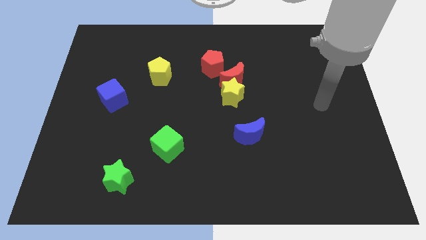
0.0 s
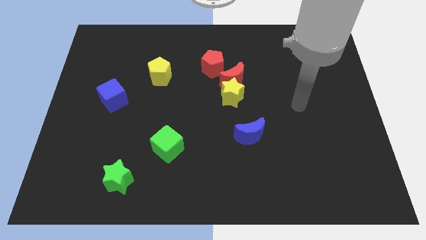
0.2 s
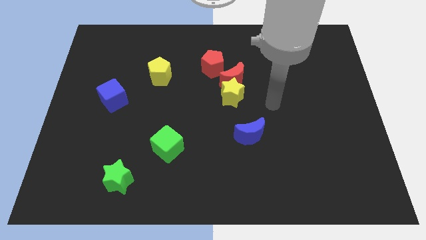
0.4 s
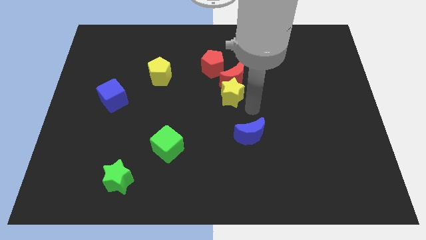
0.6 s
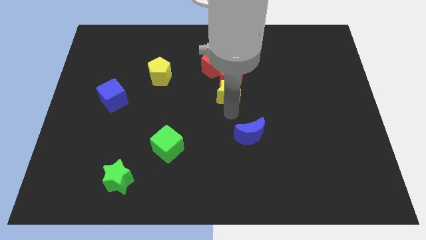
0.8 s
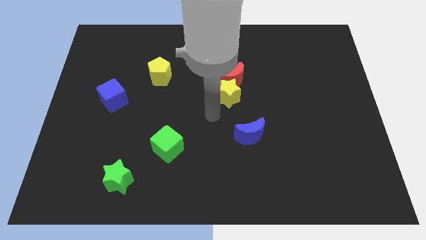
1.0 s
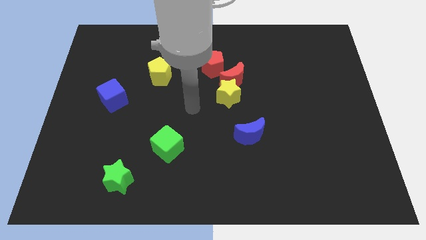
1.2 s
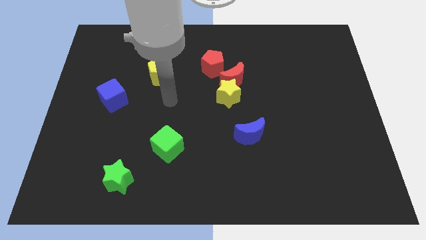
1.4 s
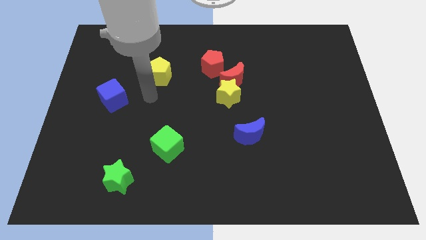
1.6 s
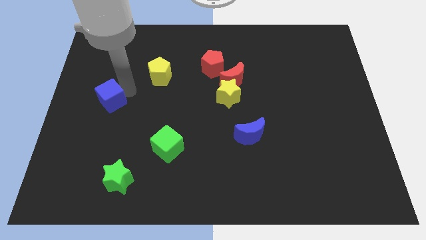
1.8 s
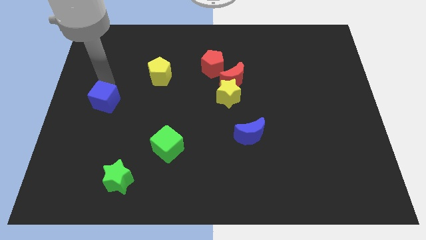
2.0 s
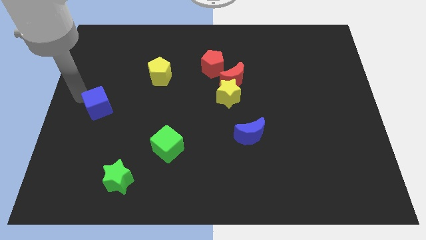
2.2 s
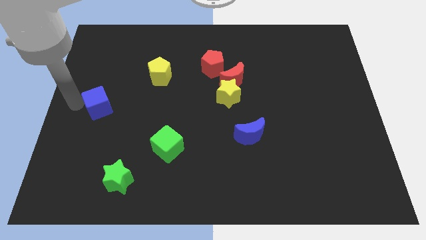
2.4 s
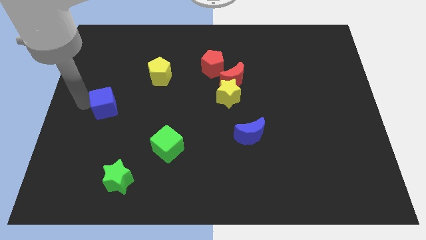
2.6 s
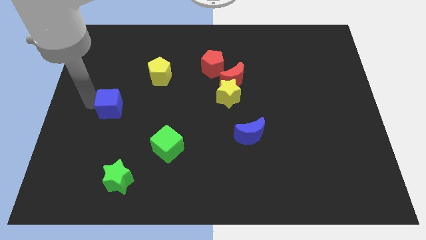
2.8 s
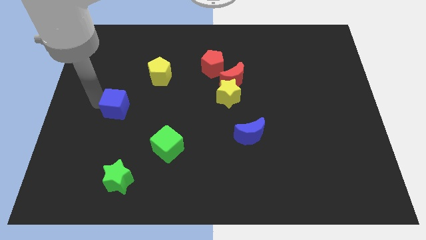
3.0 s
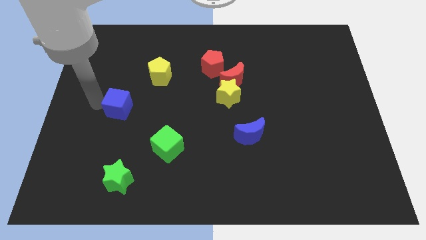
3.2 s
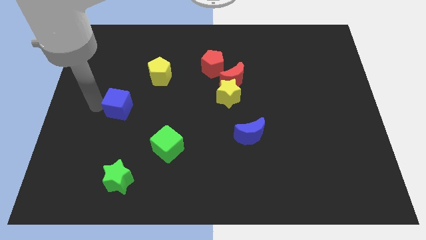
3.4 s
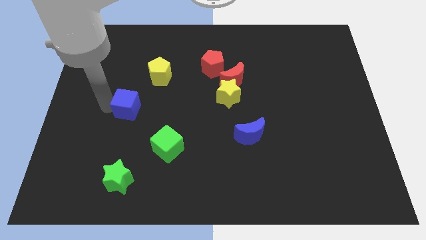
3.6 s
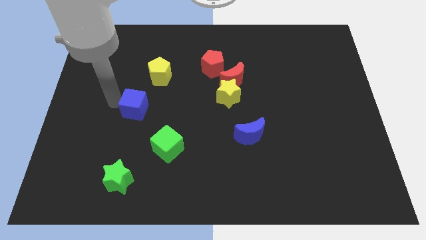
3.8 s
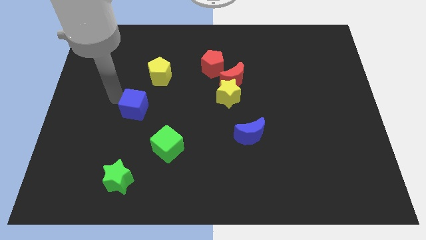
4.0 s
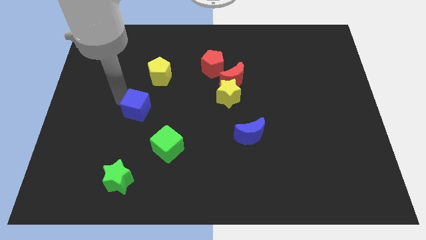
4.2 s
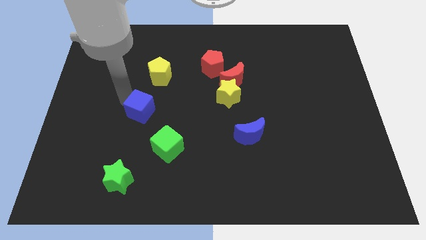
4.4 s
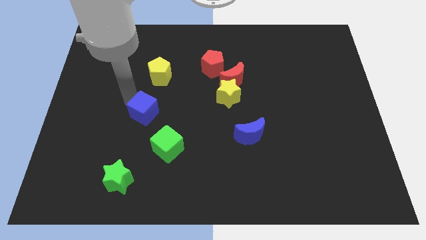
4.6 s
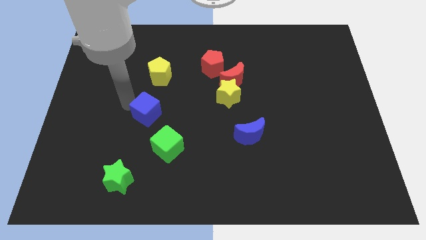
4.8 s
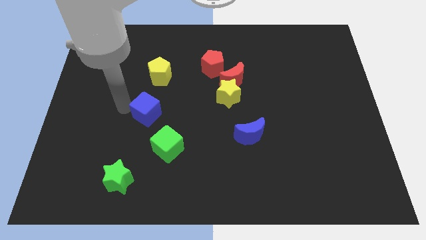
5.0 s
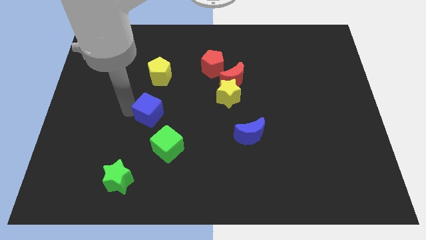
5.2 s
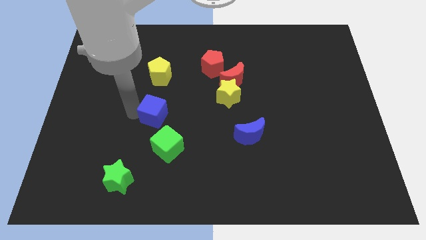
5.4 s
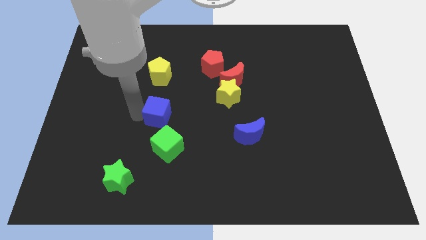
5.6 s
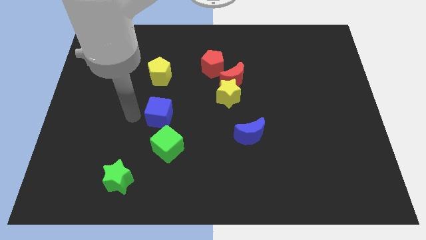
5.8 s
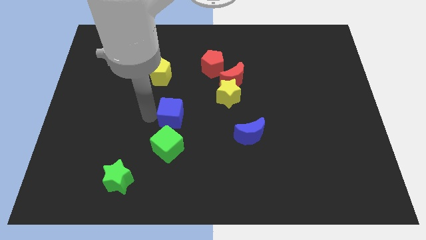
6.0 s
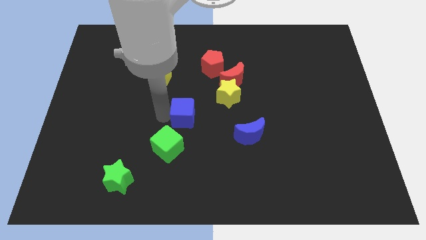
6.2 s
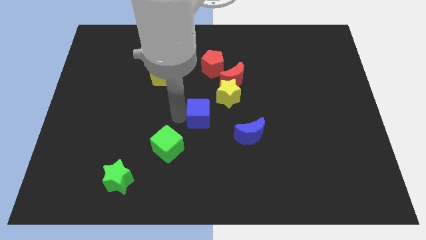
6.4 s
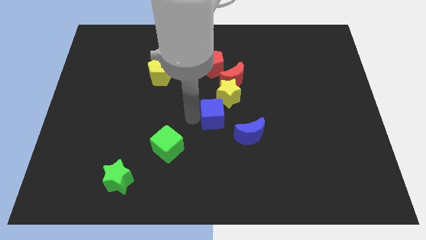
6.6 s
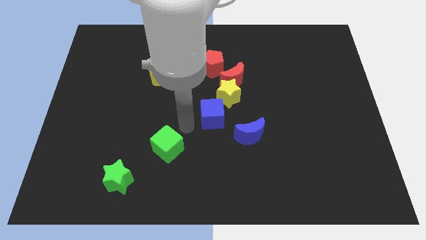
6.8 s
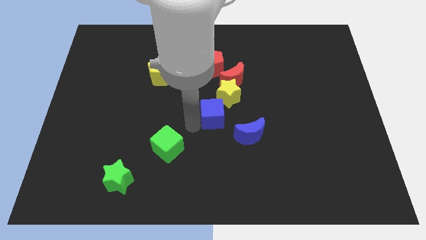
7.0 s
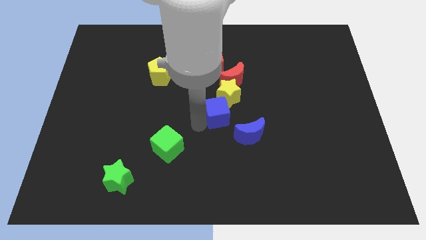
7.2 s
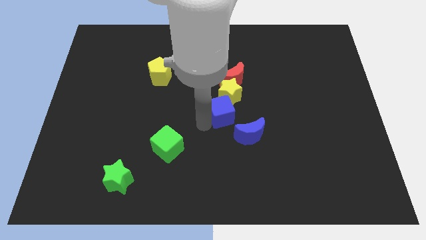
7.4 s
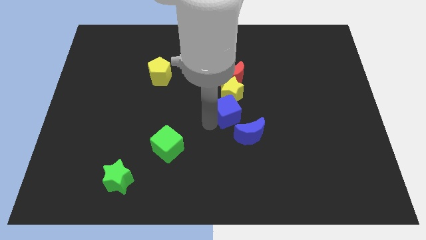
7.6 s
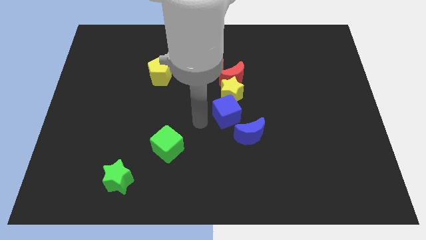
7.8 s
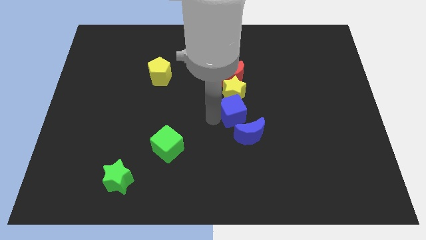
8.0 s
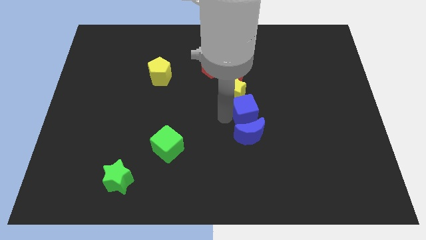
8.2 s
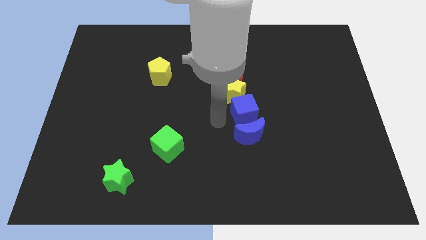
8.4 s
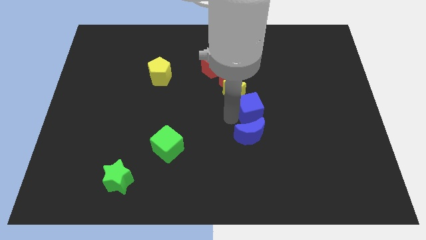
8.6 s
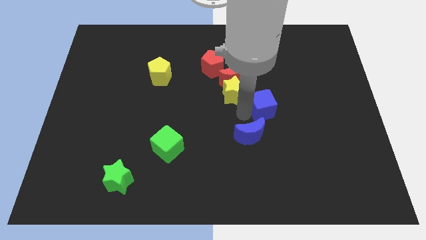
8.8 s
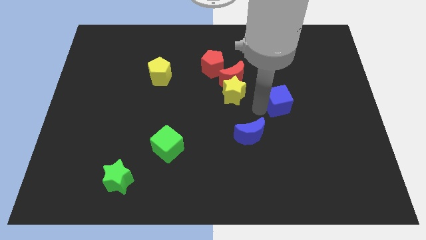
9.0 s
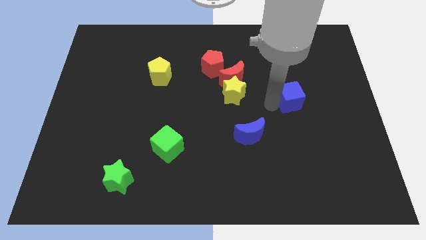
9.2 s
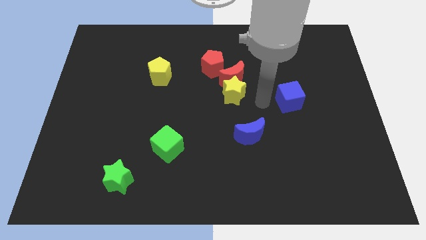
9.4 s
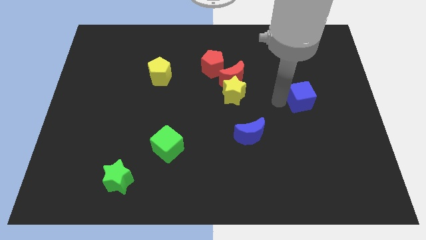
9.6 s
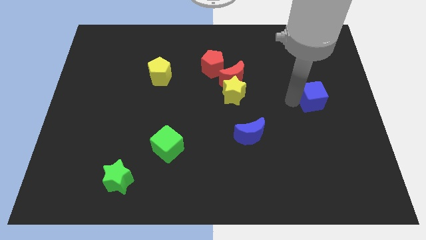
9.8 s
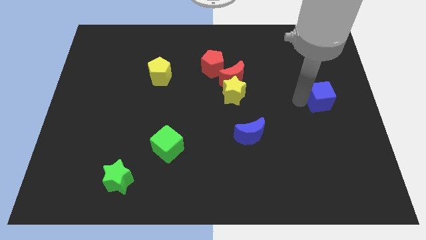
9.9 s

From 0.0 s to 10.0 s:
put the blue cube to the center right

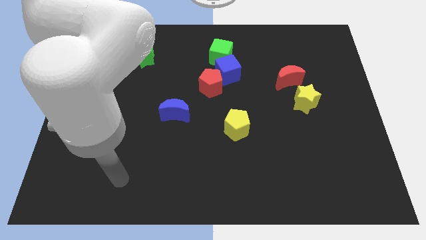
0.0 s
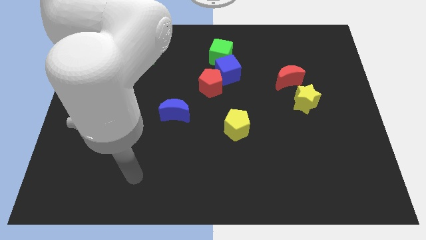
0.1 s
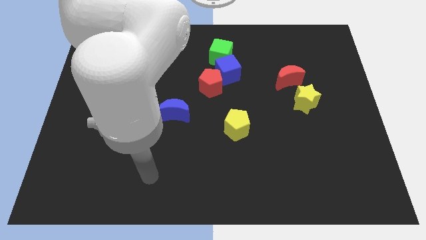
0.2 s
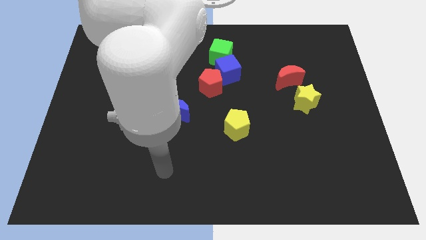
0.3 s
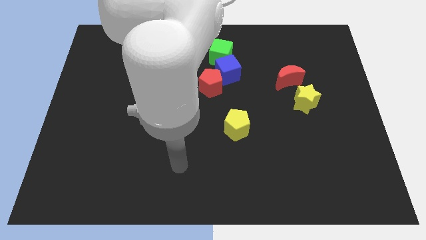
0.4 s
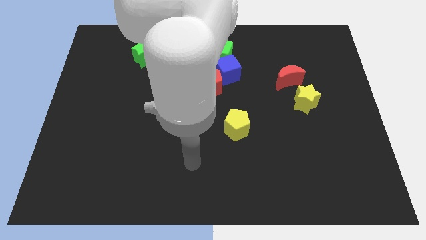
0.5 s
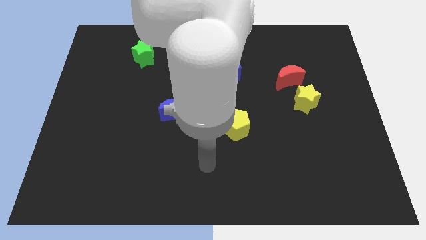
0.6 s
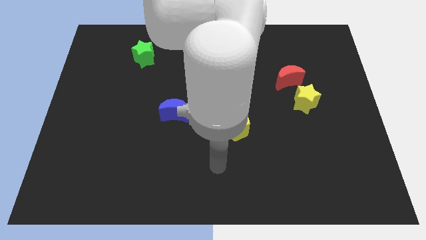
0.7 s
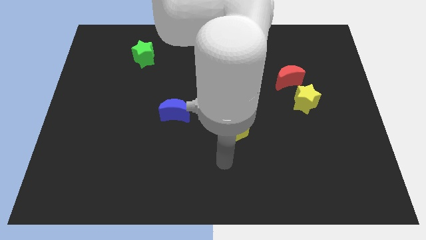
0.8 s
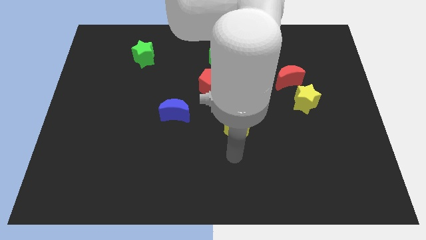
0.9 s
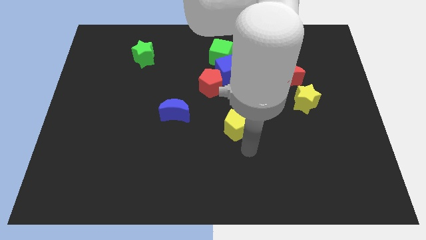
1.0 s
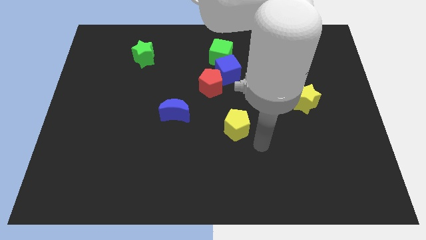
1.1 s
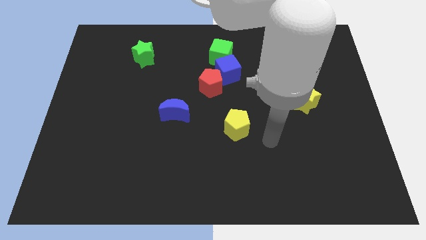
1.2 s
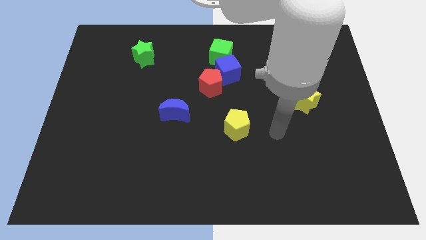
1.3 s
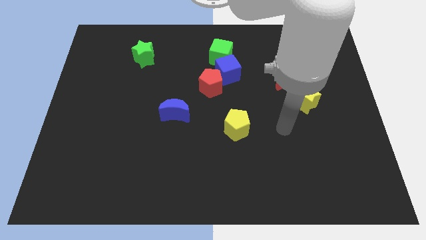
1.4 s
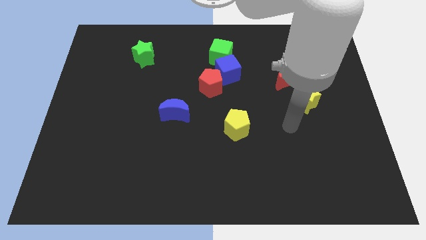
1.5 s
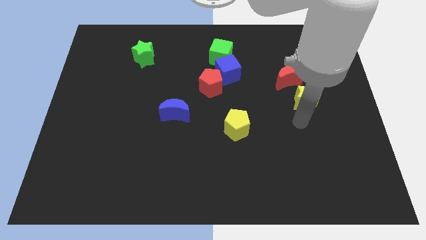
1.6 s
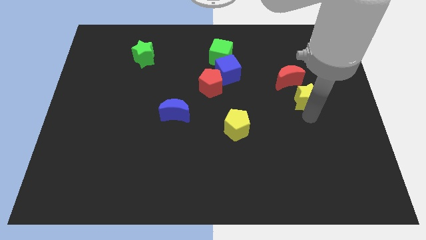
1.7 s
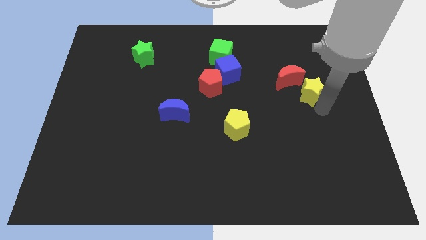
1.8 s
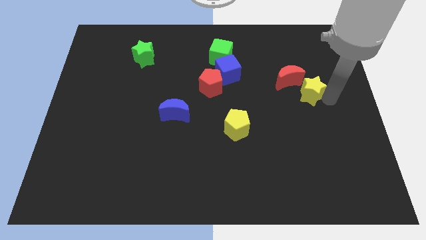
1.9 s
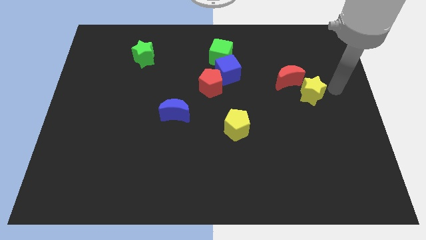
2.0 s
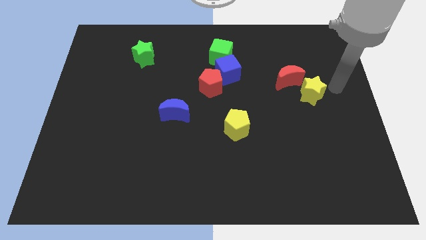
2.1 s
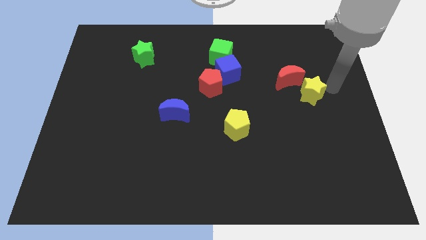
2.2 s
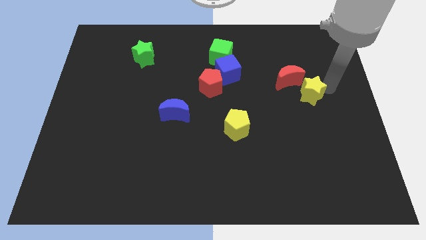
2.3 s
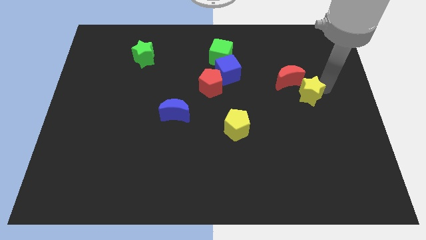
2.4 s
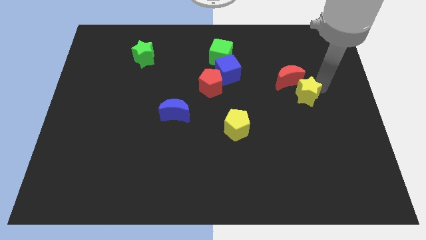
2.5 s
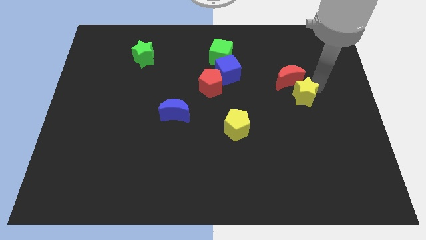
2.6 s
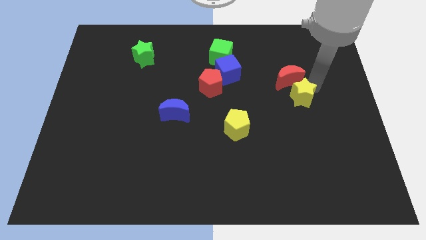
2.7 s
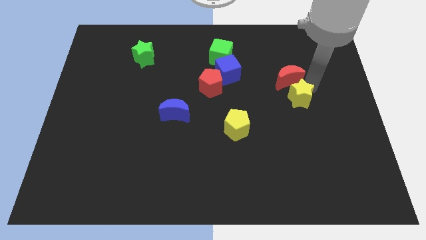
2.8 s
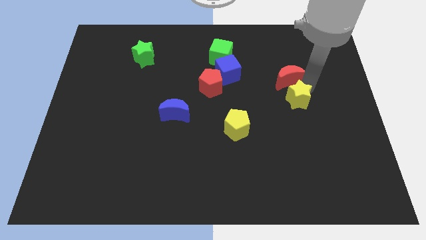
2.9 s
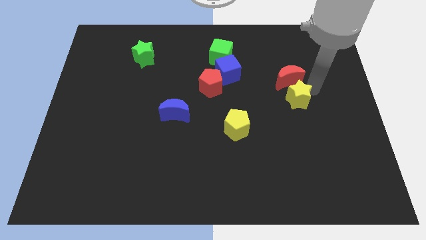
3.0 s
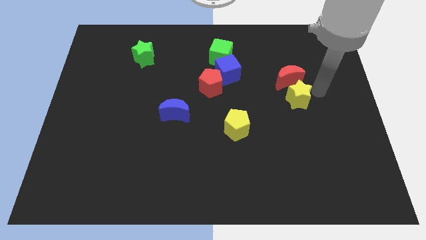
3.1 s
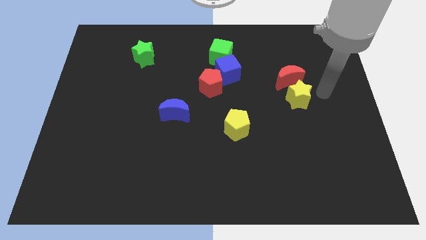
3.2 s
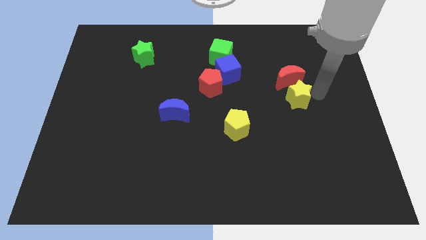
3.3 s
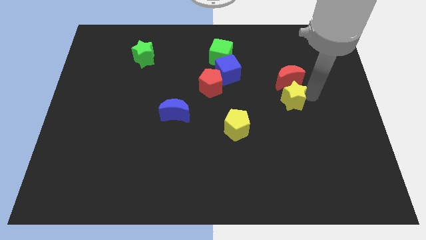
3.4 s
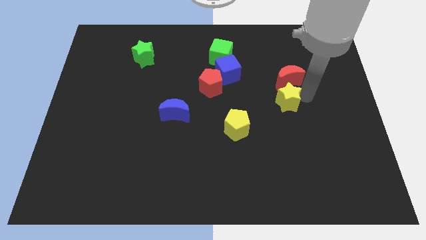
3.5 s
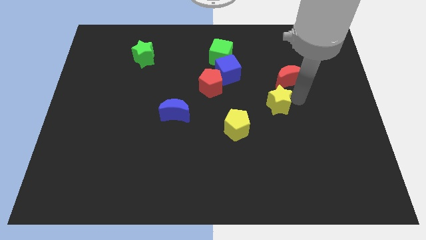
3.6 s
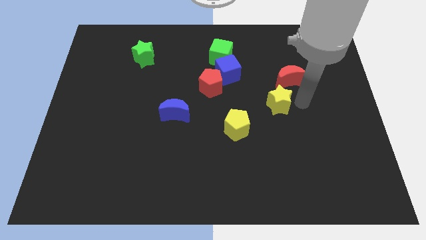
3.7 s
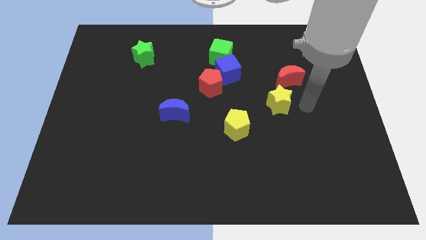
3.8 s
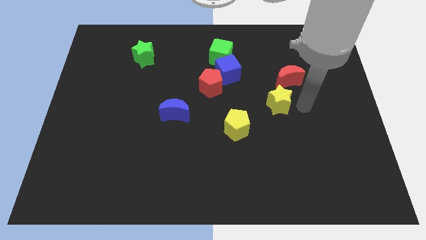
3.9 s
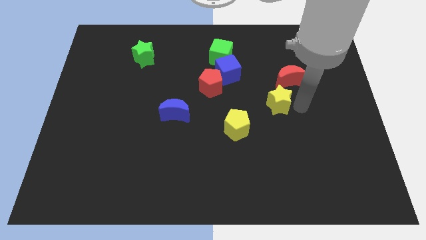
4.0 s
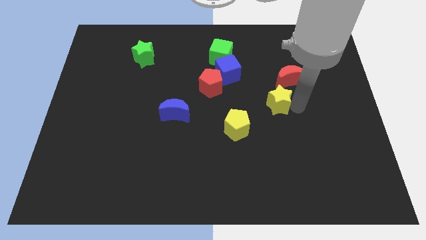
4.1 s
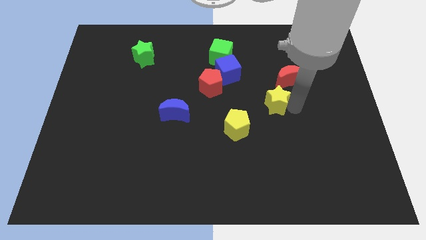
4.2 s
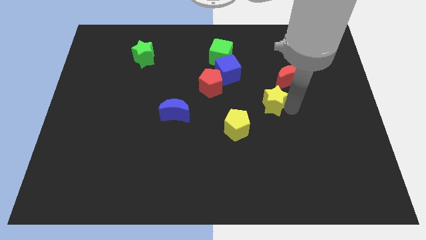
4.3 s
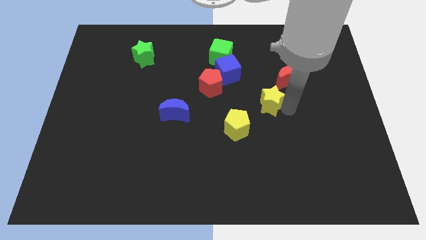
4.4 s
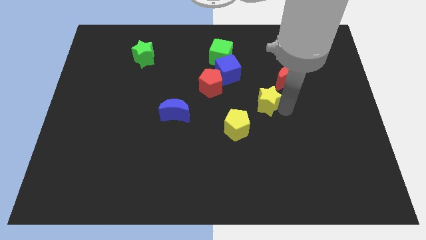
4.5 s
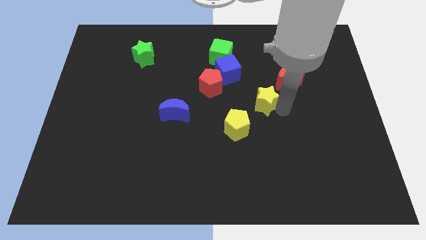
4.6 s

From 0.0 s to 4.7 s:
put the yellow star to the middle
